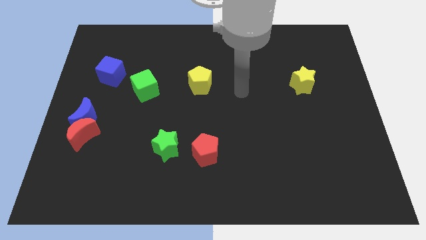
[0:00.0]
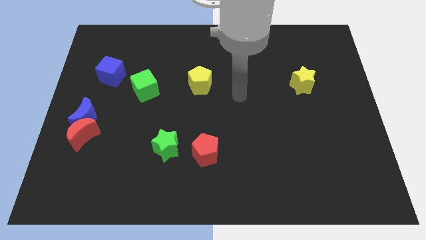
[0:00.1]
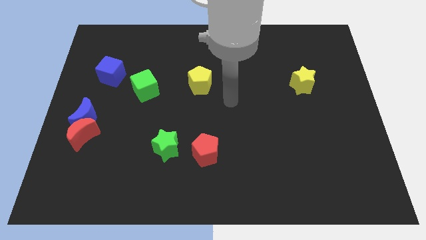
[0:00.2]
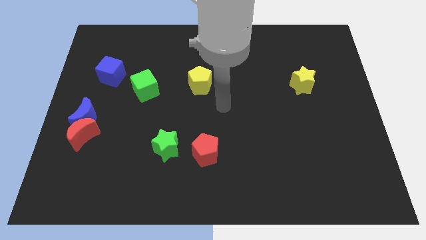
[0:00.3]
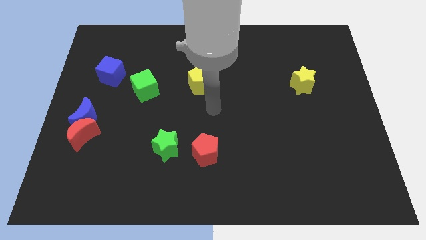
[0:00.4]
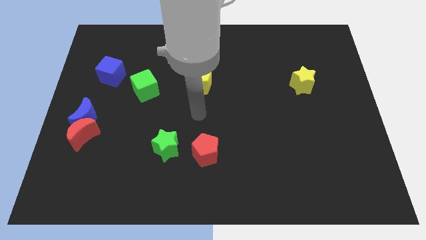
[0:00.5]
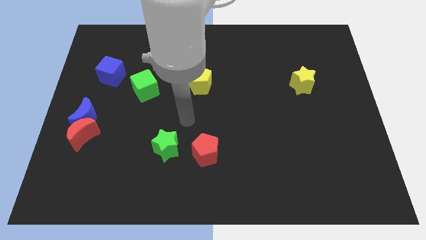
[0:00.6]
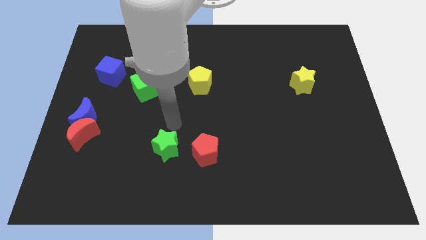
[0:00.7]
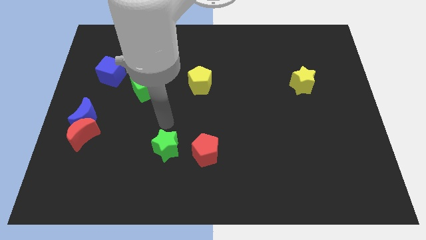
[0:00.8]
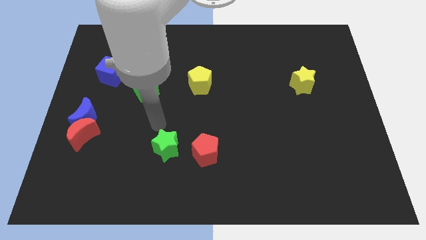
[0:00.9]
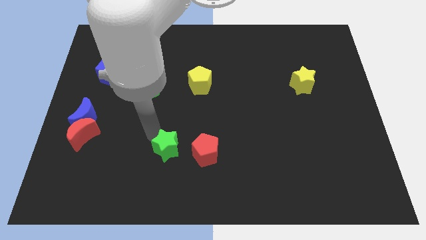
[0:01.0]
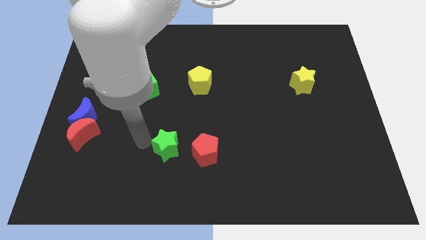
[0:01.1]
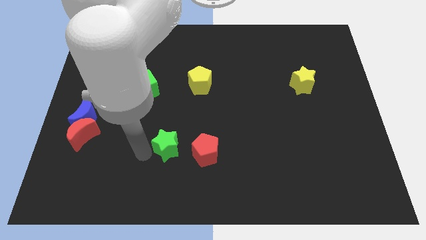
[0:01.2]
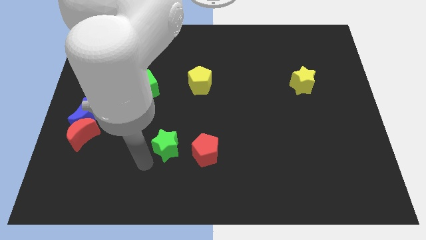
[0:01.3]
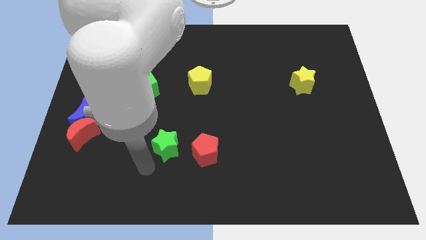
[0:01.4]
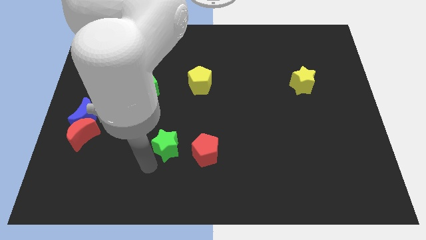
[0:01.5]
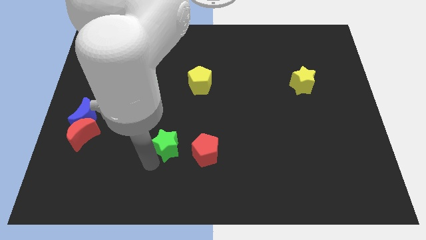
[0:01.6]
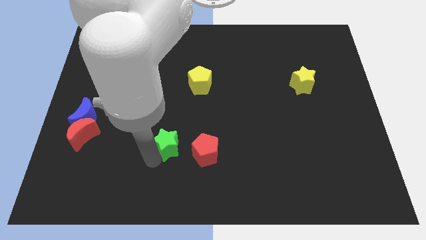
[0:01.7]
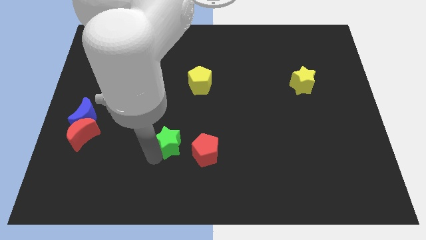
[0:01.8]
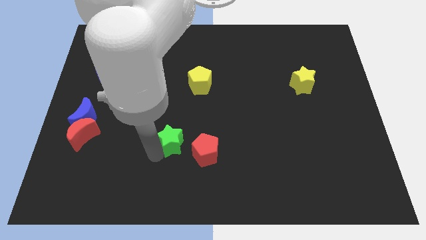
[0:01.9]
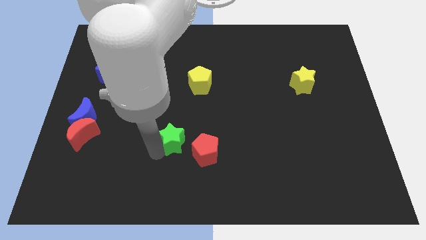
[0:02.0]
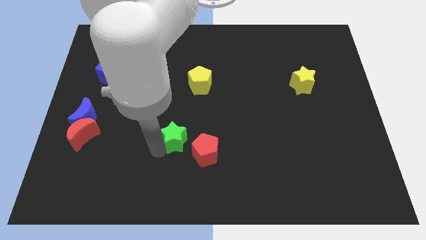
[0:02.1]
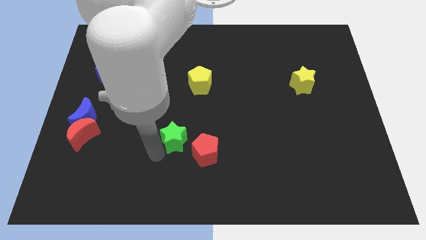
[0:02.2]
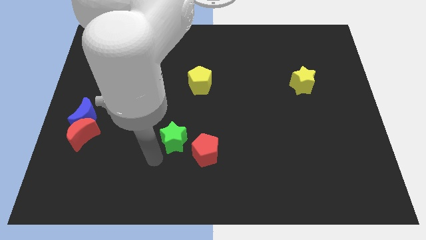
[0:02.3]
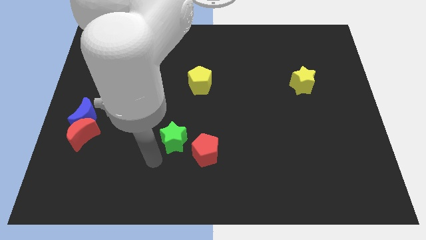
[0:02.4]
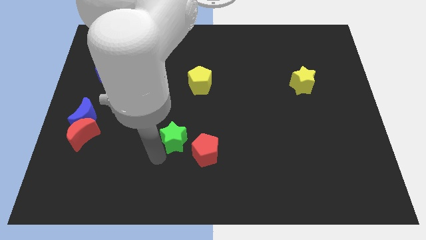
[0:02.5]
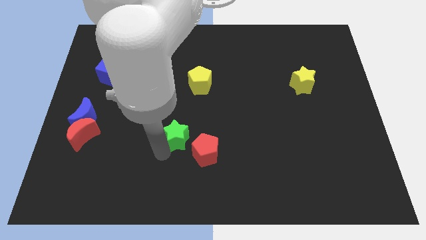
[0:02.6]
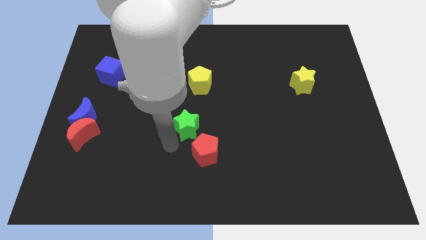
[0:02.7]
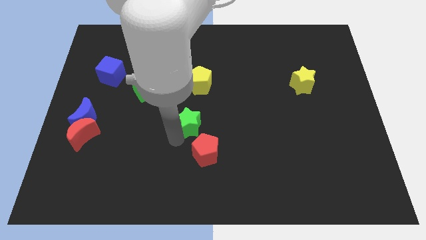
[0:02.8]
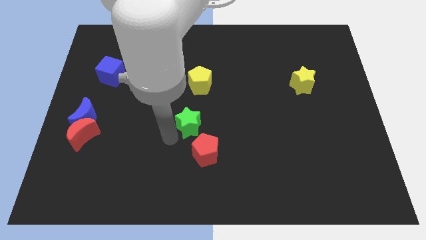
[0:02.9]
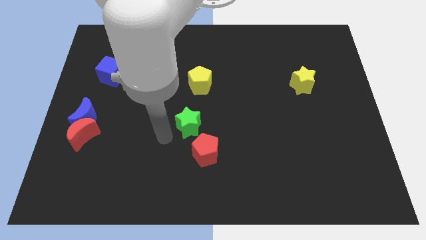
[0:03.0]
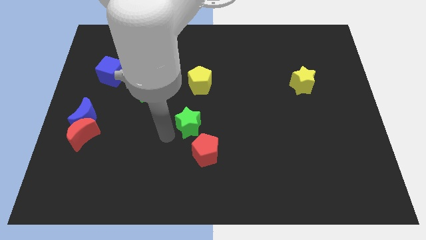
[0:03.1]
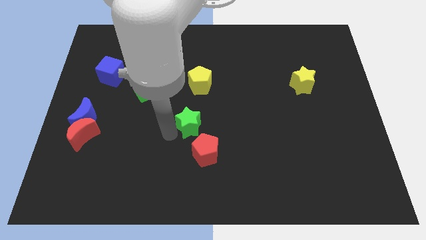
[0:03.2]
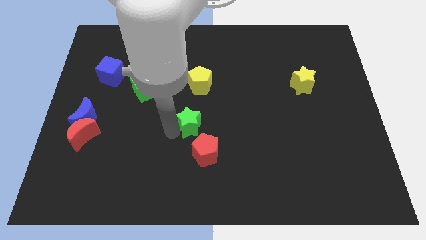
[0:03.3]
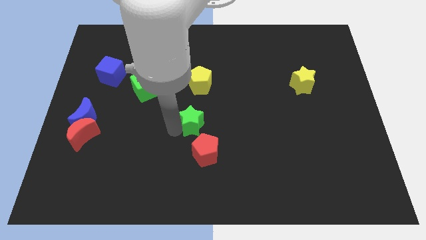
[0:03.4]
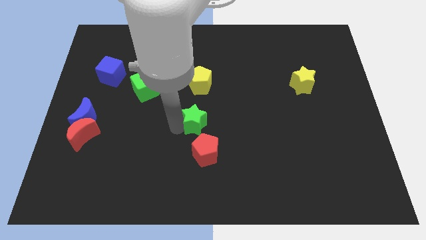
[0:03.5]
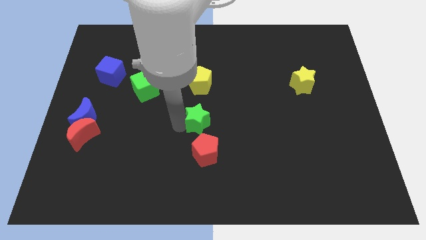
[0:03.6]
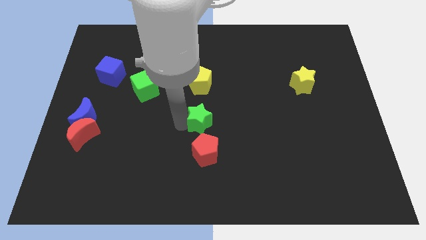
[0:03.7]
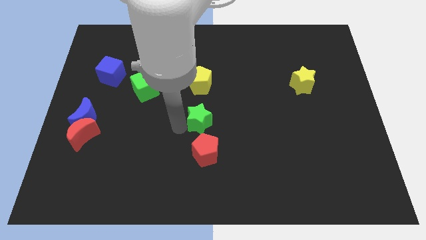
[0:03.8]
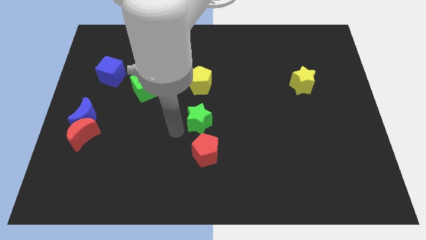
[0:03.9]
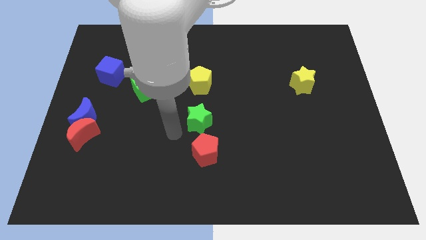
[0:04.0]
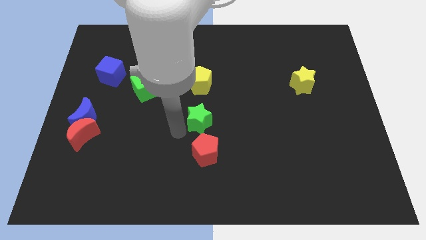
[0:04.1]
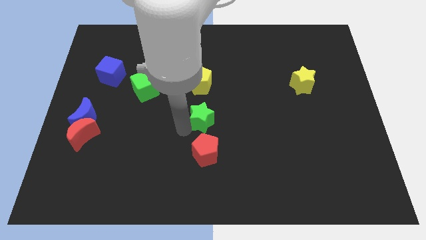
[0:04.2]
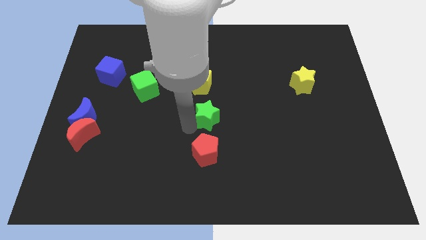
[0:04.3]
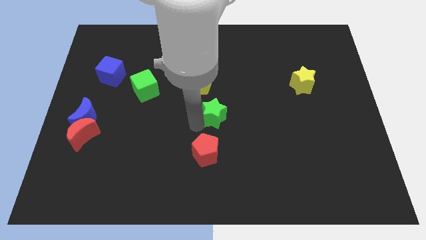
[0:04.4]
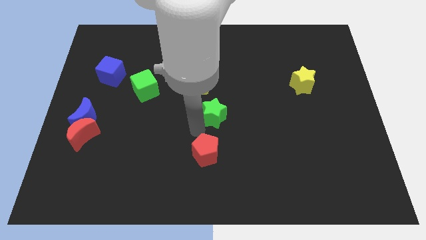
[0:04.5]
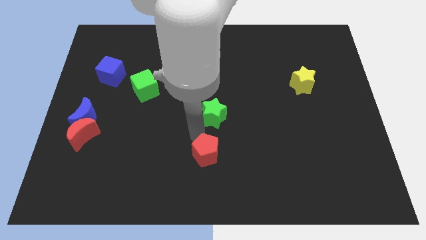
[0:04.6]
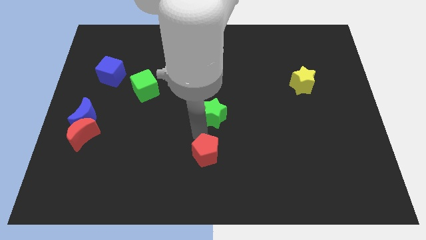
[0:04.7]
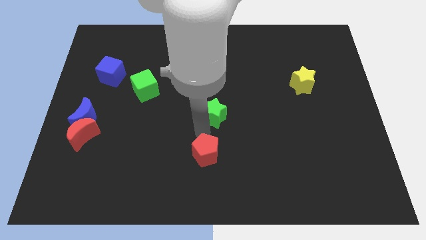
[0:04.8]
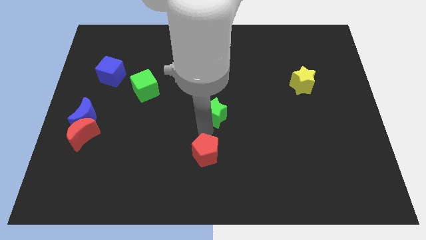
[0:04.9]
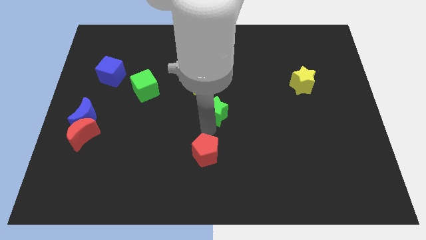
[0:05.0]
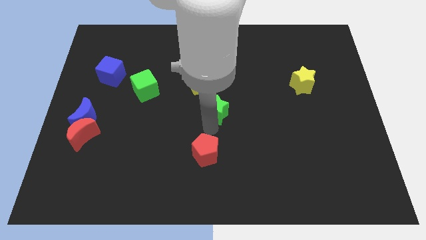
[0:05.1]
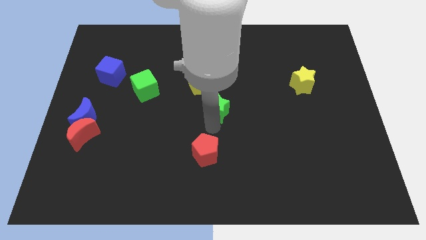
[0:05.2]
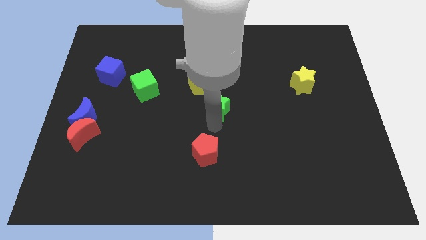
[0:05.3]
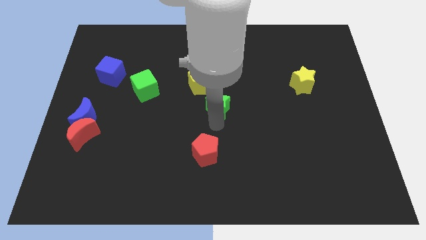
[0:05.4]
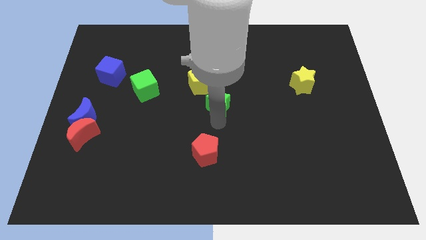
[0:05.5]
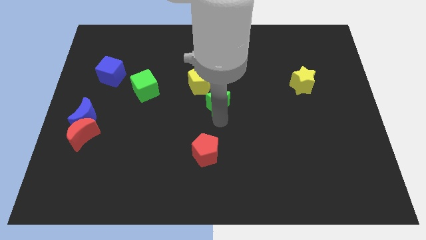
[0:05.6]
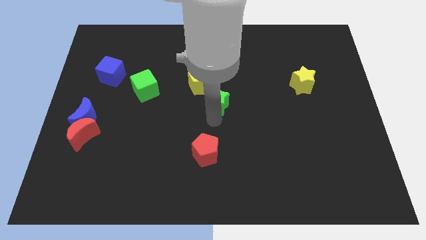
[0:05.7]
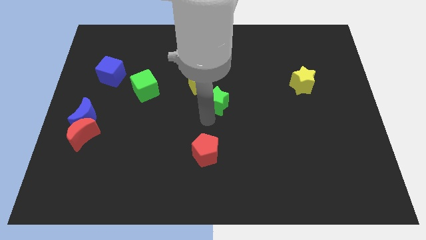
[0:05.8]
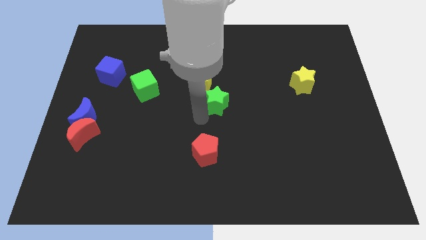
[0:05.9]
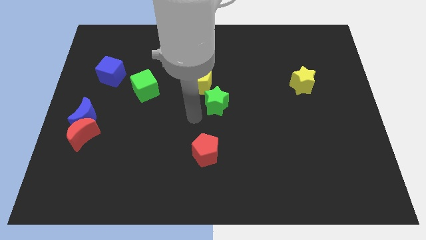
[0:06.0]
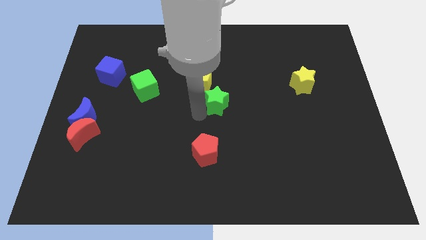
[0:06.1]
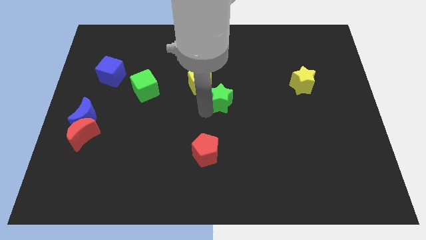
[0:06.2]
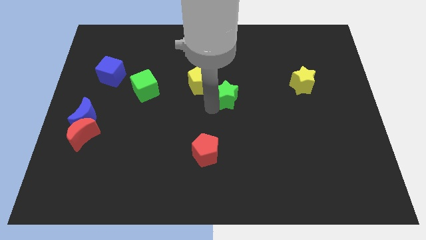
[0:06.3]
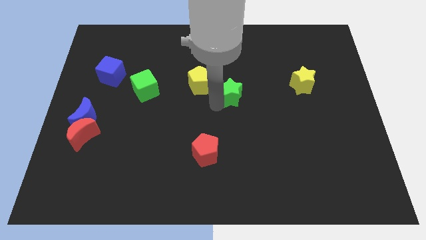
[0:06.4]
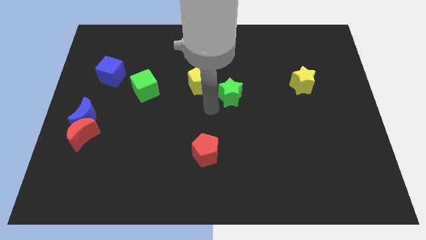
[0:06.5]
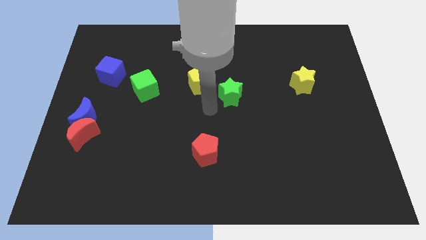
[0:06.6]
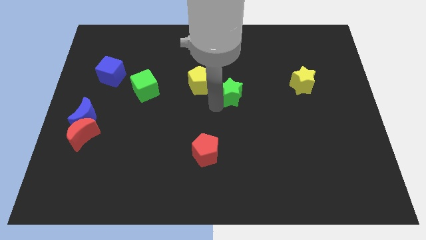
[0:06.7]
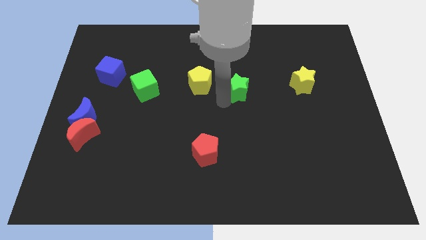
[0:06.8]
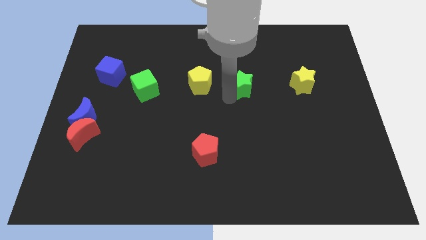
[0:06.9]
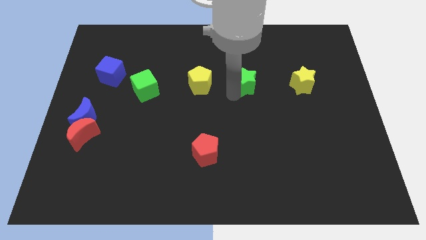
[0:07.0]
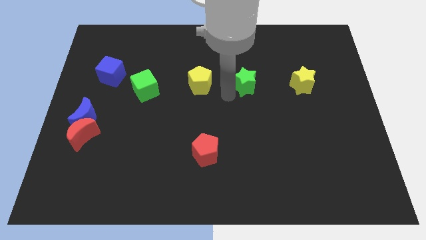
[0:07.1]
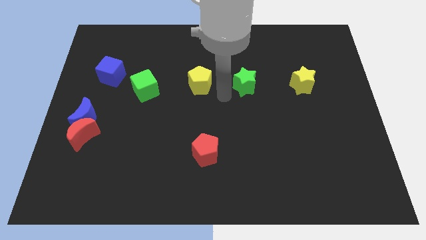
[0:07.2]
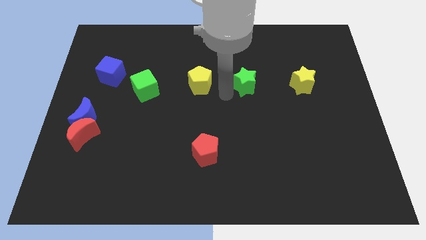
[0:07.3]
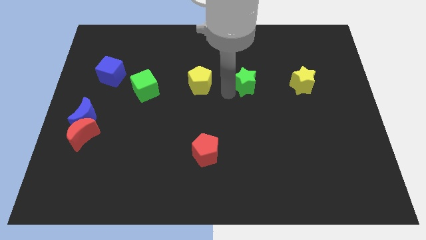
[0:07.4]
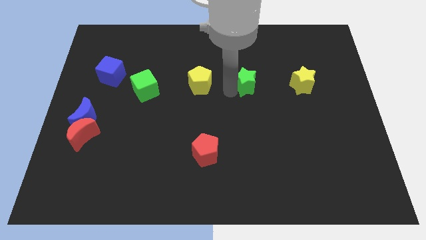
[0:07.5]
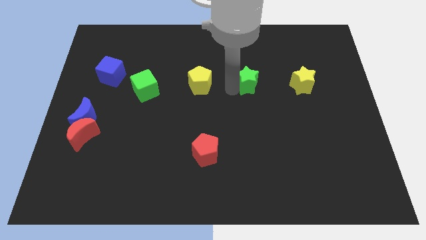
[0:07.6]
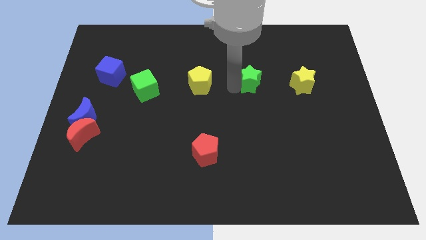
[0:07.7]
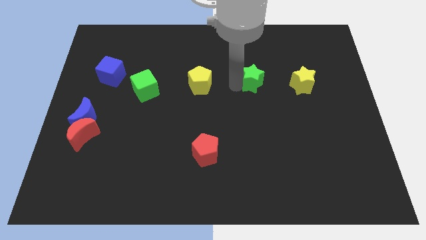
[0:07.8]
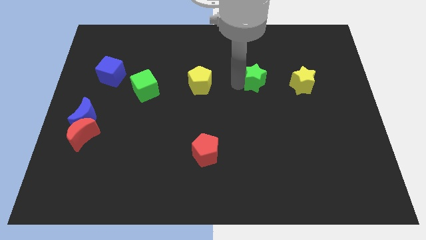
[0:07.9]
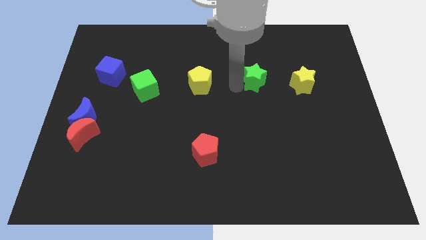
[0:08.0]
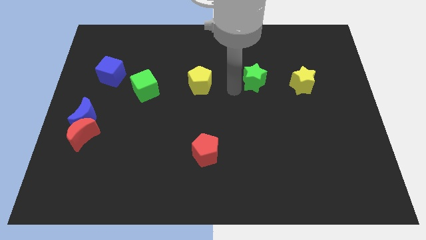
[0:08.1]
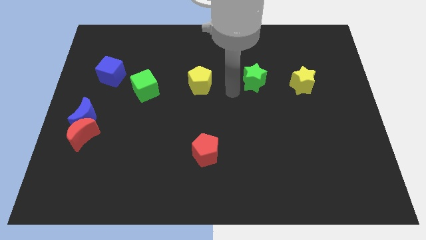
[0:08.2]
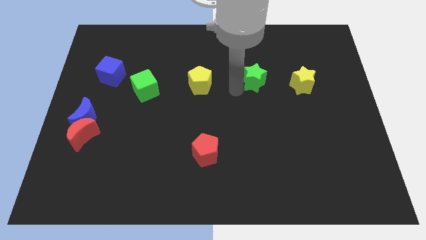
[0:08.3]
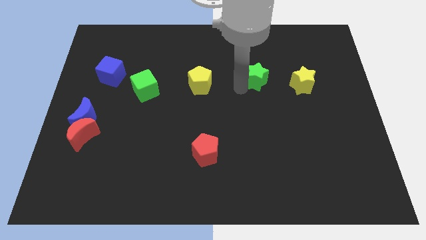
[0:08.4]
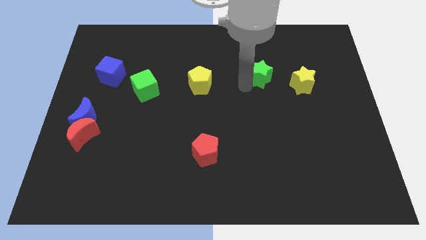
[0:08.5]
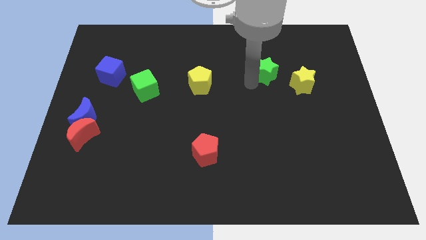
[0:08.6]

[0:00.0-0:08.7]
push the green star to the top left of the yellow star
